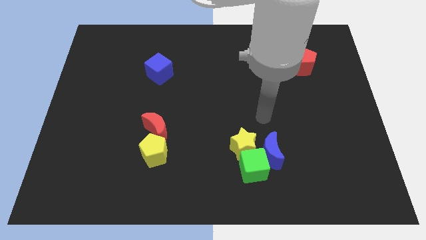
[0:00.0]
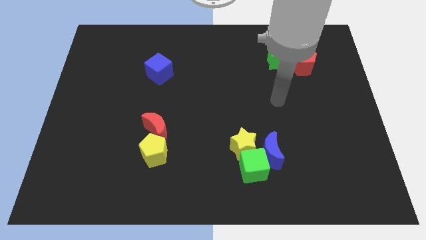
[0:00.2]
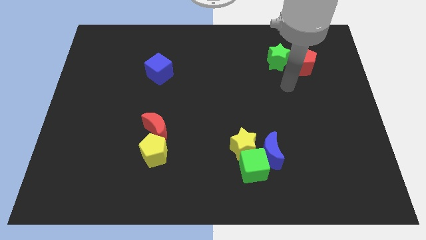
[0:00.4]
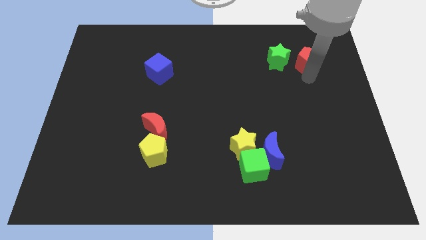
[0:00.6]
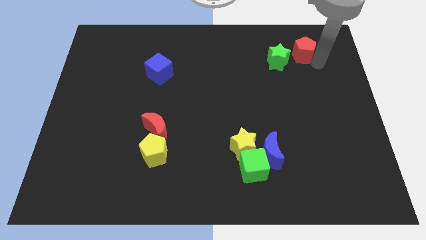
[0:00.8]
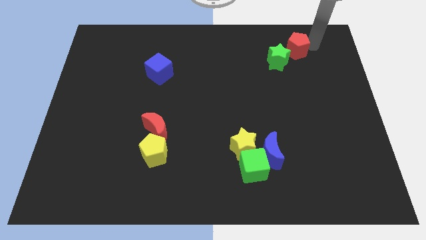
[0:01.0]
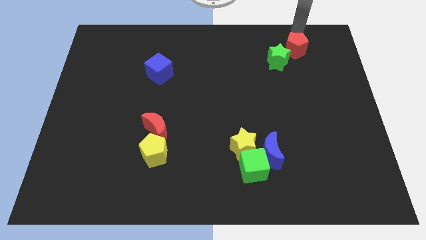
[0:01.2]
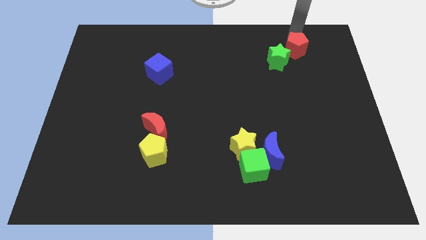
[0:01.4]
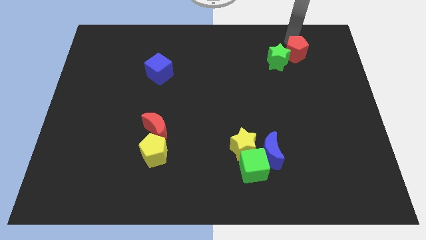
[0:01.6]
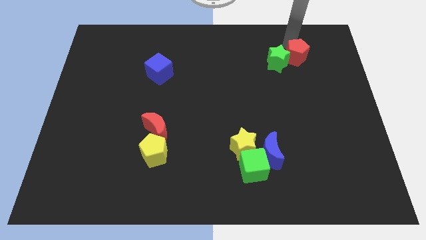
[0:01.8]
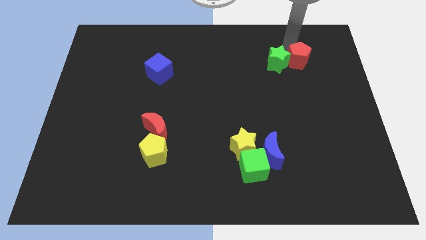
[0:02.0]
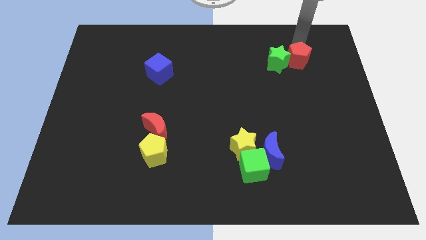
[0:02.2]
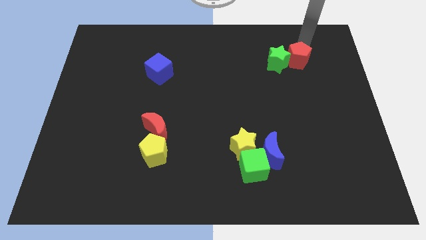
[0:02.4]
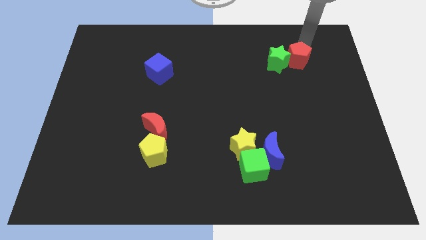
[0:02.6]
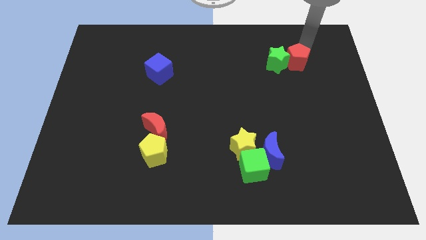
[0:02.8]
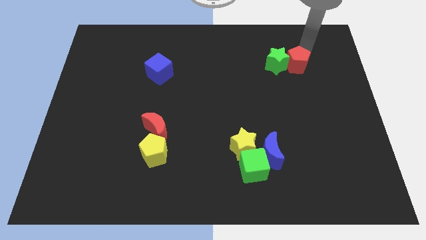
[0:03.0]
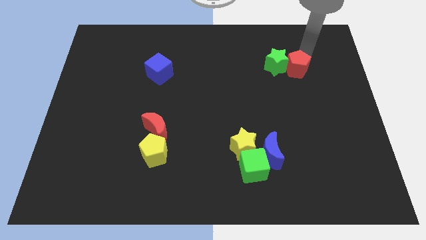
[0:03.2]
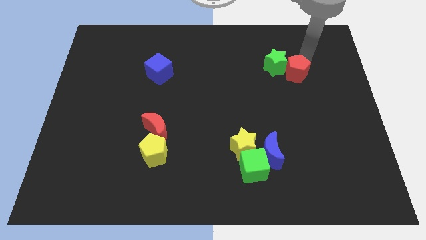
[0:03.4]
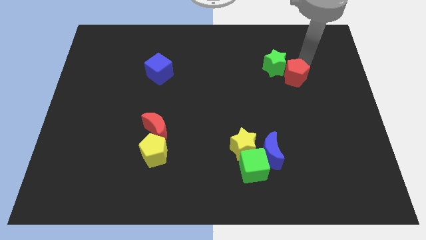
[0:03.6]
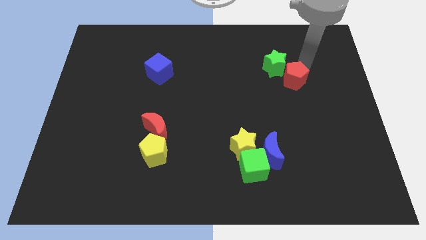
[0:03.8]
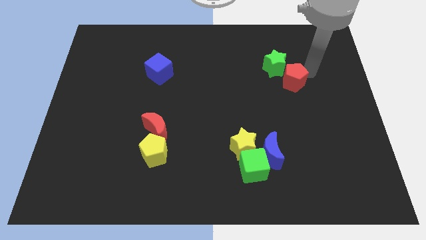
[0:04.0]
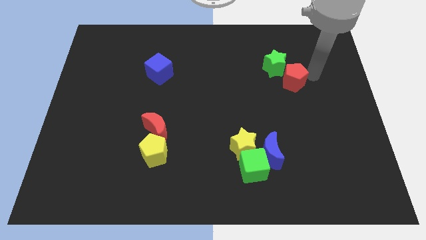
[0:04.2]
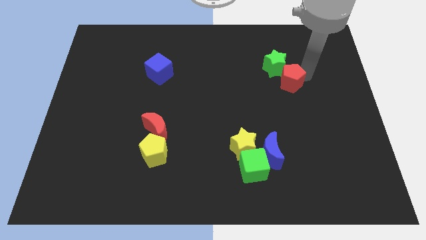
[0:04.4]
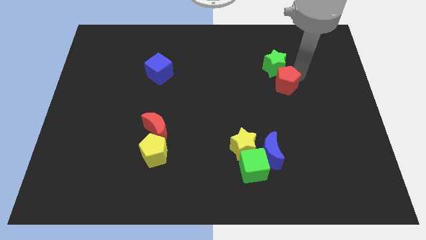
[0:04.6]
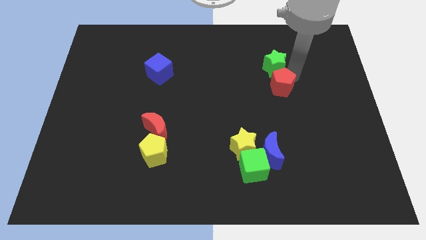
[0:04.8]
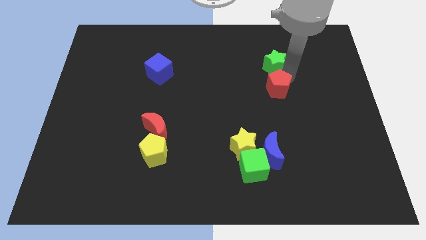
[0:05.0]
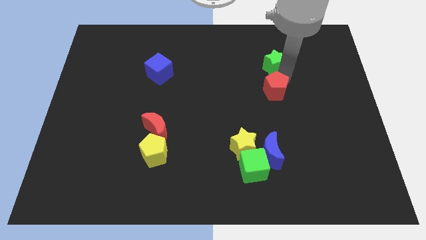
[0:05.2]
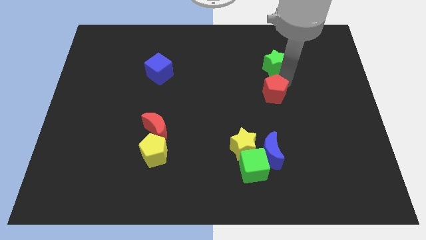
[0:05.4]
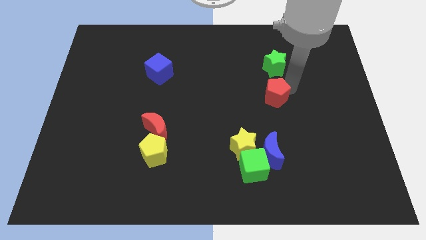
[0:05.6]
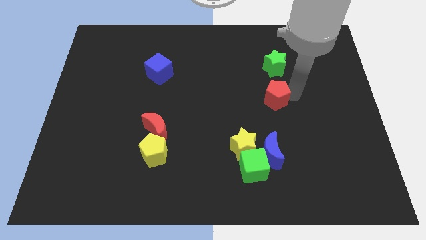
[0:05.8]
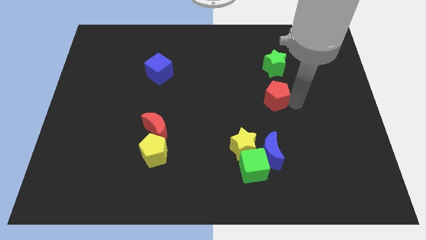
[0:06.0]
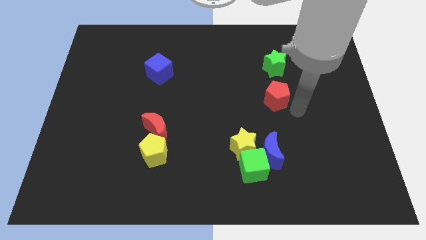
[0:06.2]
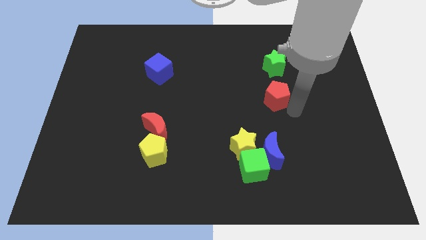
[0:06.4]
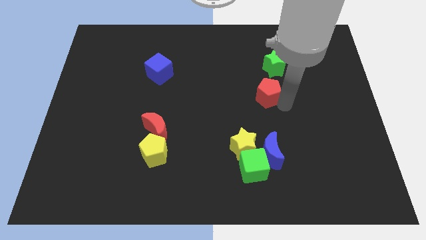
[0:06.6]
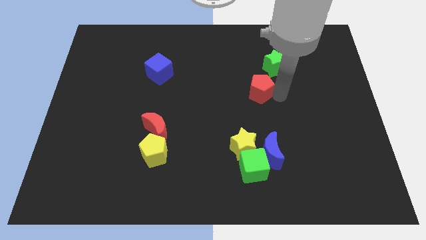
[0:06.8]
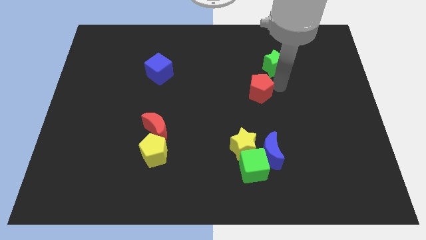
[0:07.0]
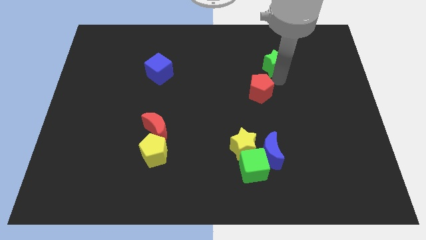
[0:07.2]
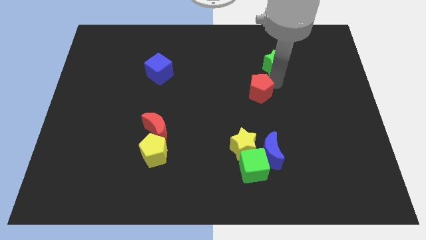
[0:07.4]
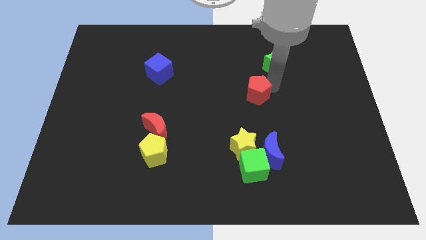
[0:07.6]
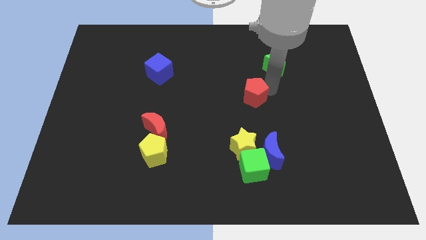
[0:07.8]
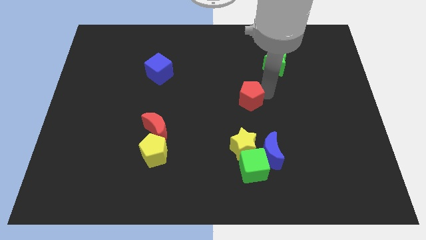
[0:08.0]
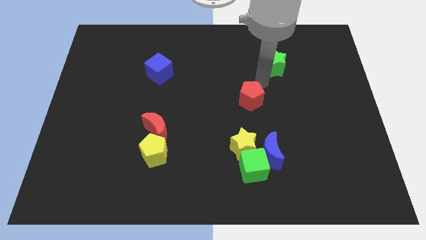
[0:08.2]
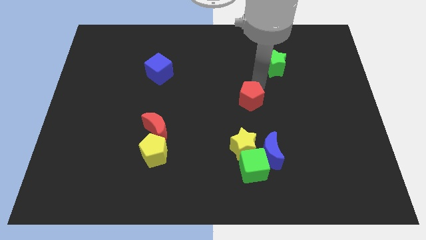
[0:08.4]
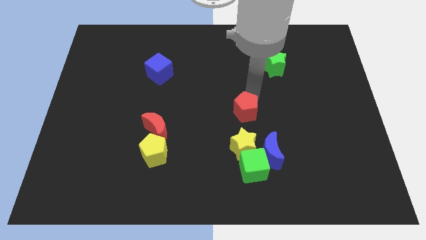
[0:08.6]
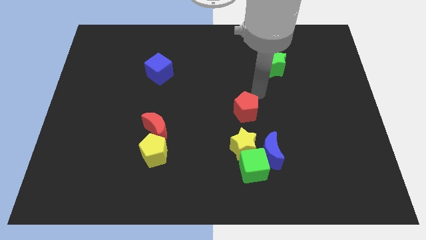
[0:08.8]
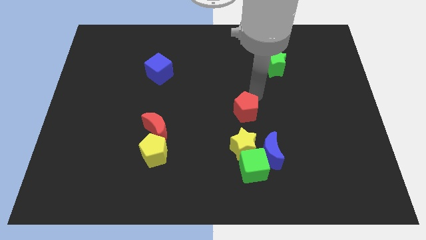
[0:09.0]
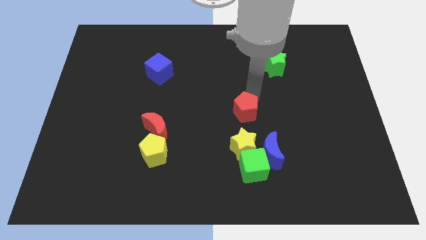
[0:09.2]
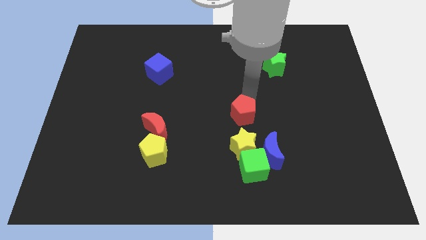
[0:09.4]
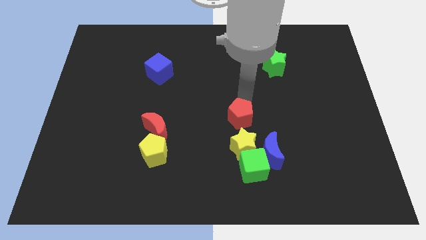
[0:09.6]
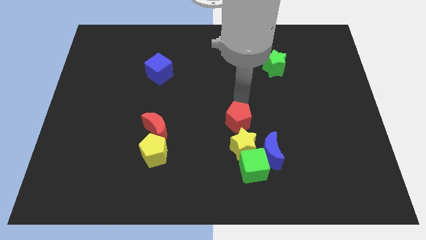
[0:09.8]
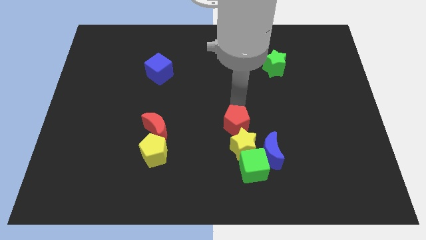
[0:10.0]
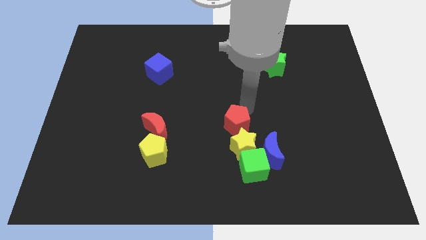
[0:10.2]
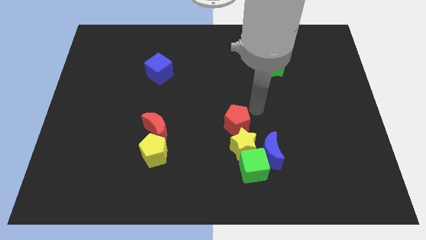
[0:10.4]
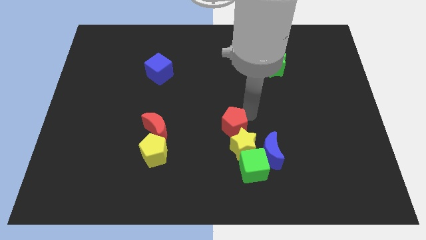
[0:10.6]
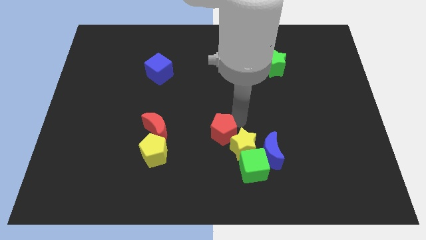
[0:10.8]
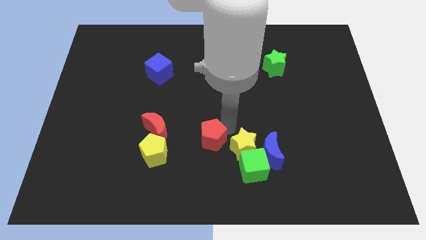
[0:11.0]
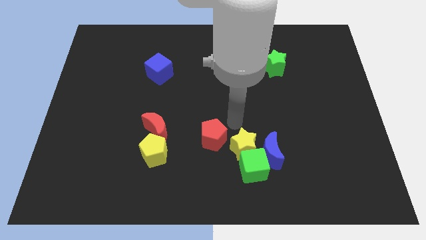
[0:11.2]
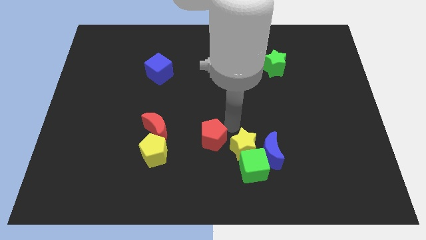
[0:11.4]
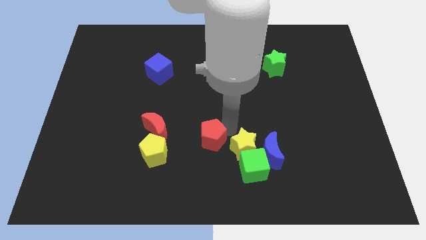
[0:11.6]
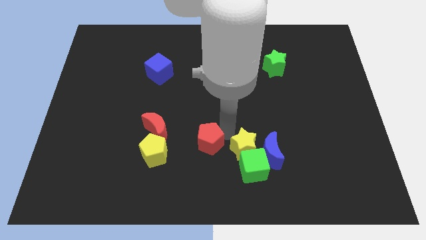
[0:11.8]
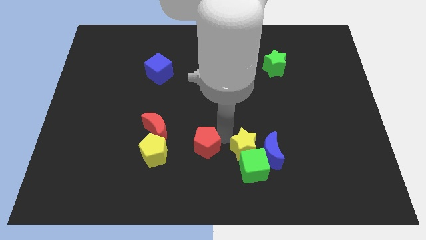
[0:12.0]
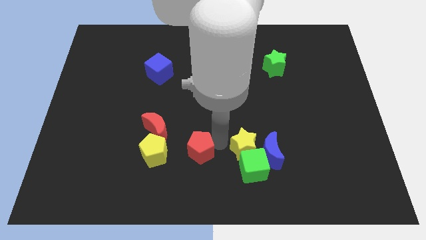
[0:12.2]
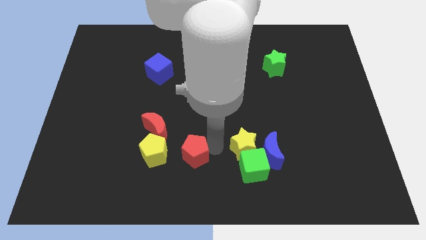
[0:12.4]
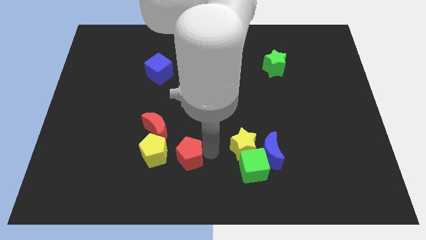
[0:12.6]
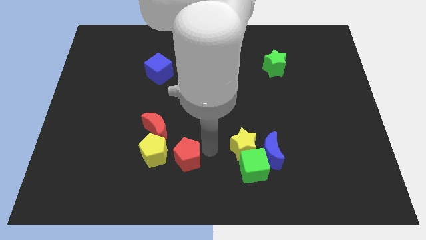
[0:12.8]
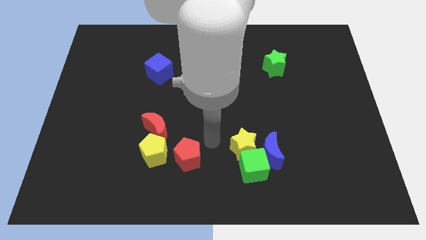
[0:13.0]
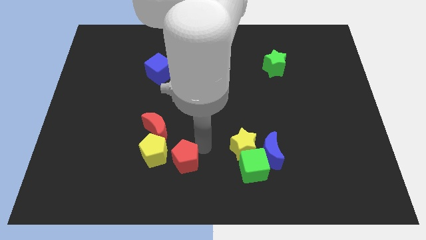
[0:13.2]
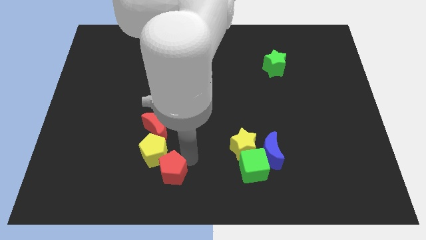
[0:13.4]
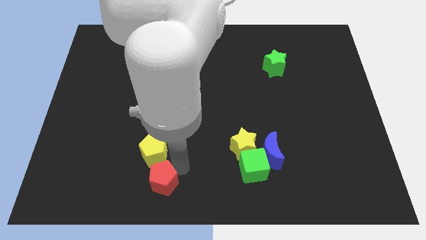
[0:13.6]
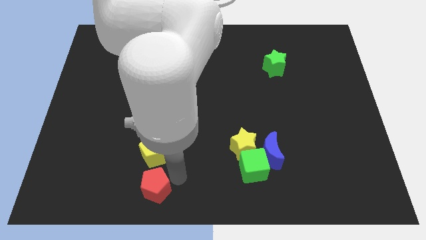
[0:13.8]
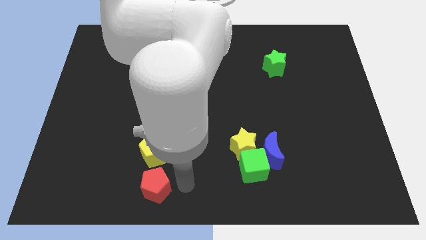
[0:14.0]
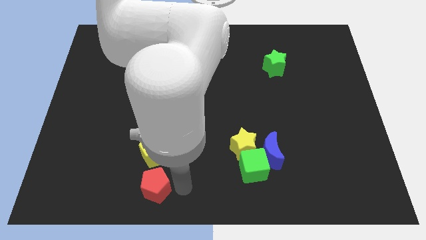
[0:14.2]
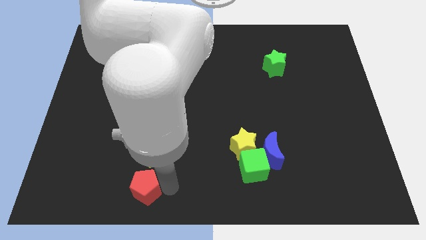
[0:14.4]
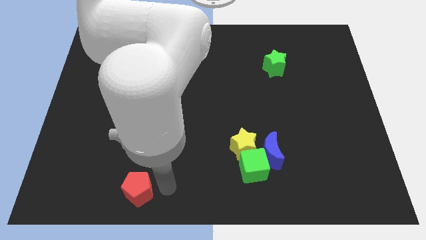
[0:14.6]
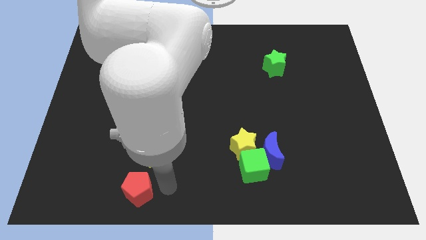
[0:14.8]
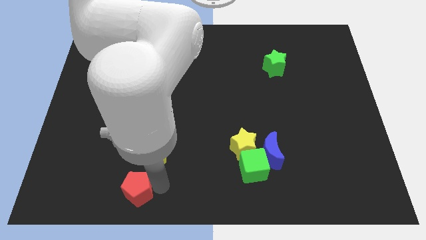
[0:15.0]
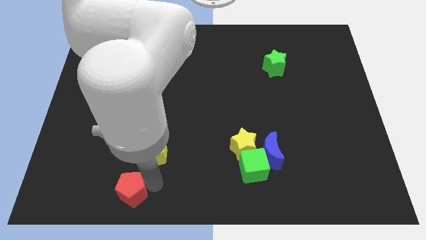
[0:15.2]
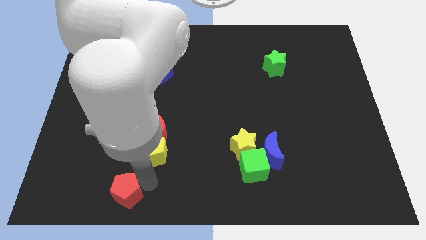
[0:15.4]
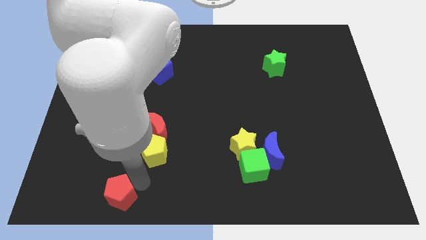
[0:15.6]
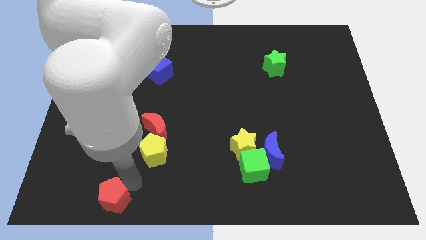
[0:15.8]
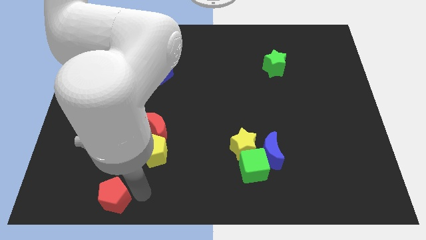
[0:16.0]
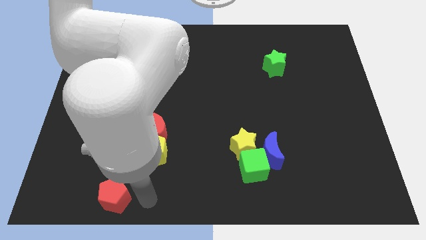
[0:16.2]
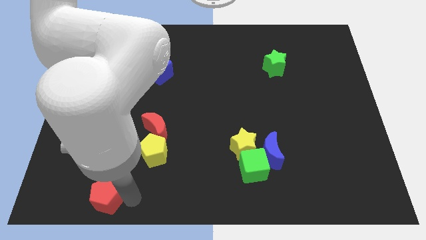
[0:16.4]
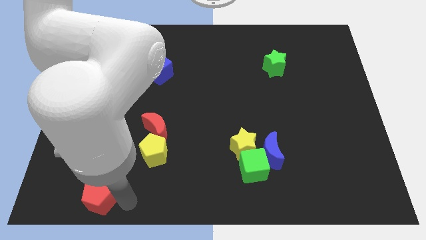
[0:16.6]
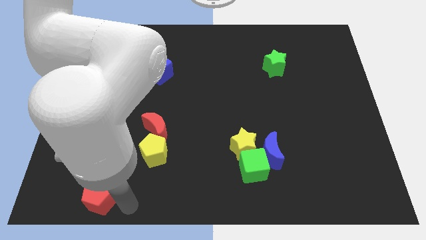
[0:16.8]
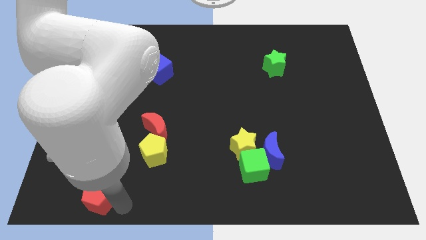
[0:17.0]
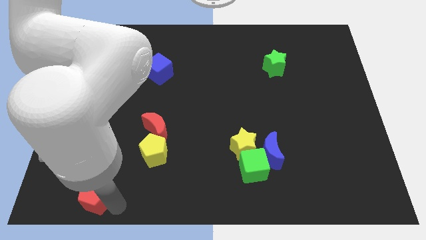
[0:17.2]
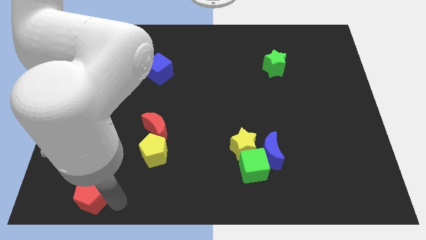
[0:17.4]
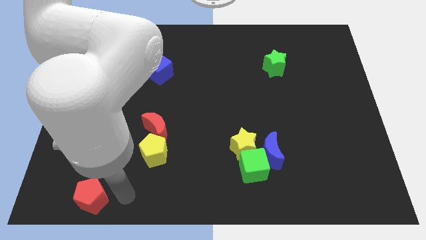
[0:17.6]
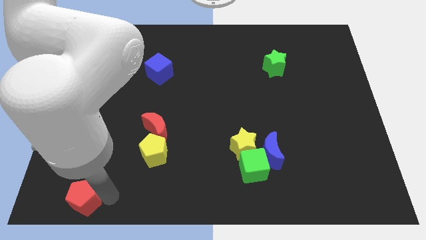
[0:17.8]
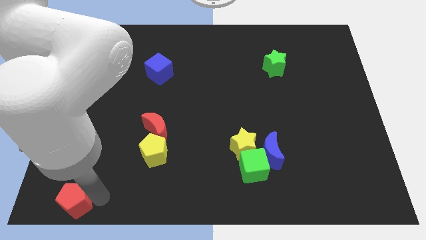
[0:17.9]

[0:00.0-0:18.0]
put the red pentagon to the bottom left of the board
